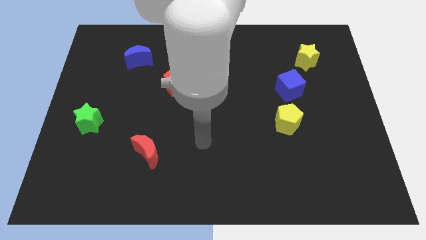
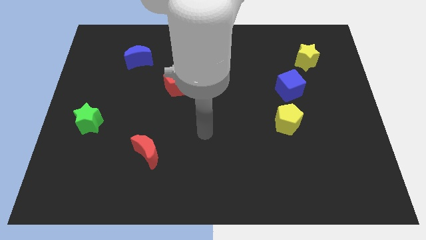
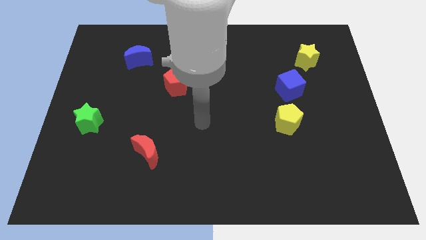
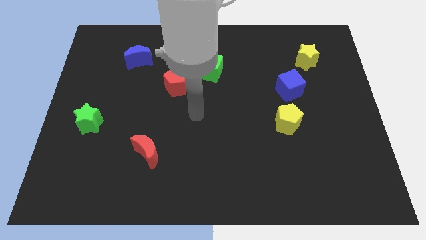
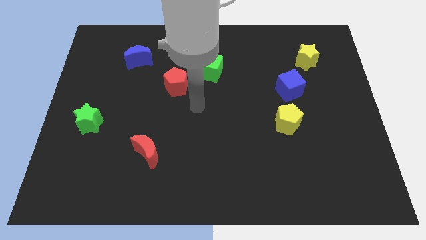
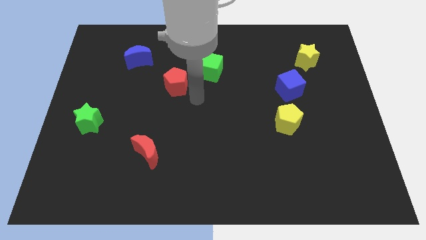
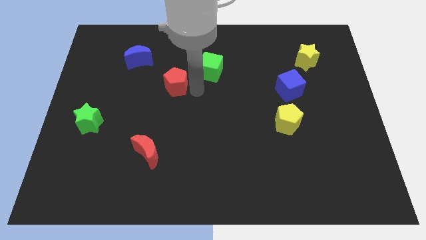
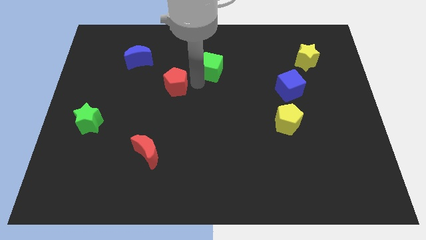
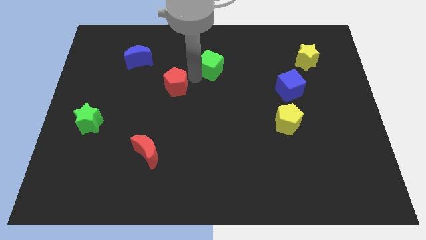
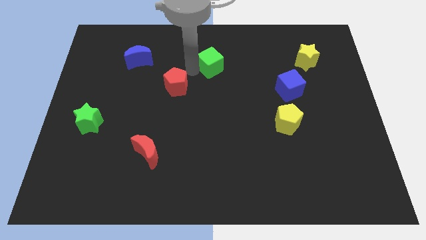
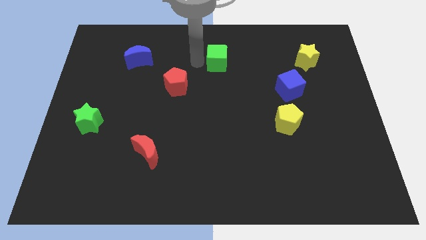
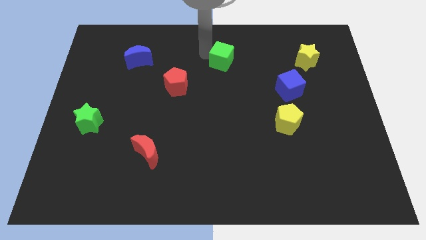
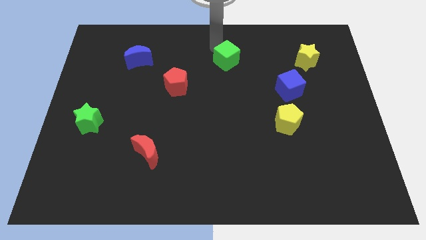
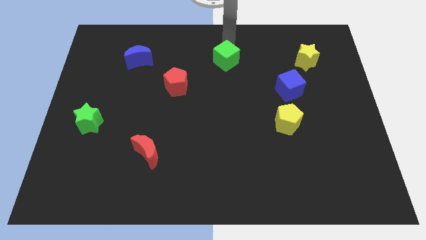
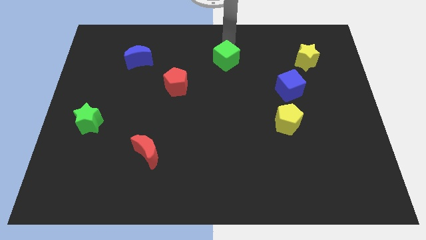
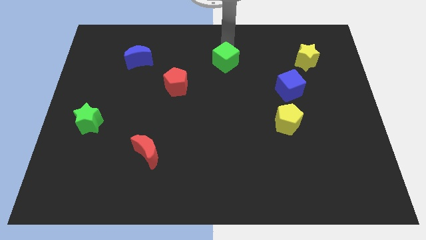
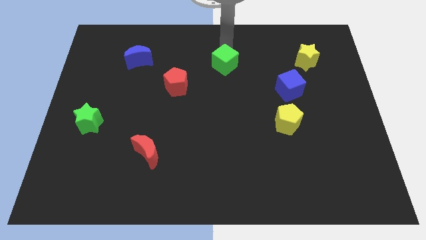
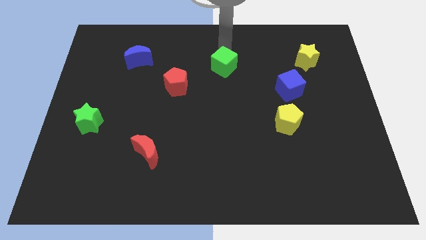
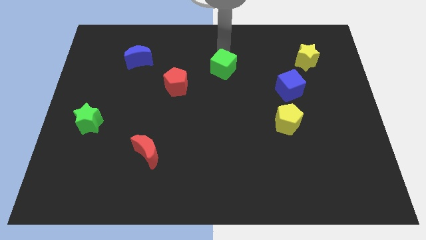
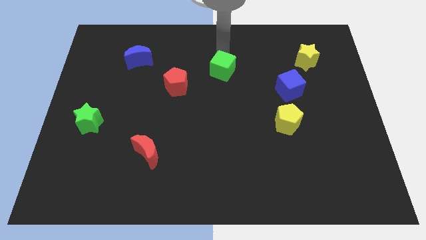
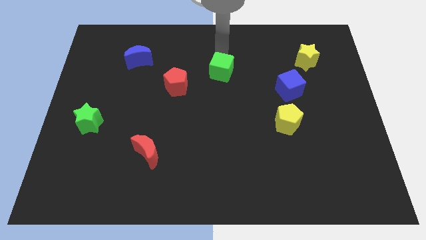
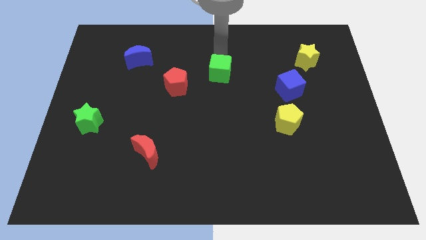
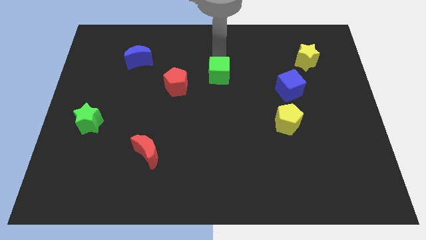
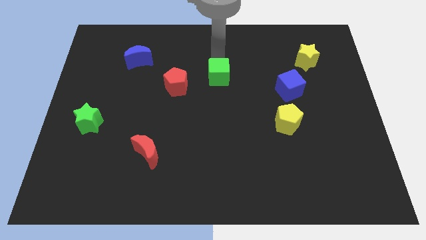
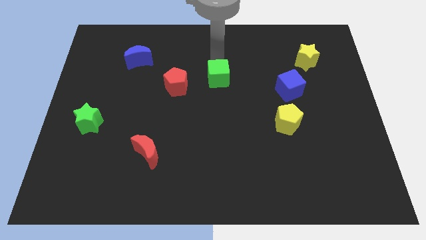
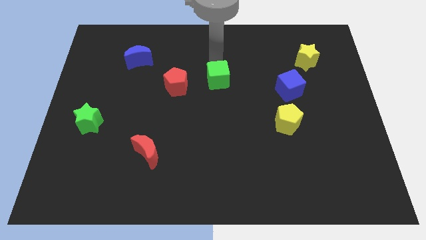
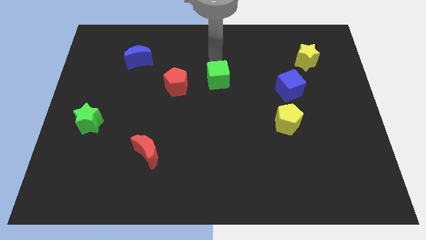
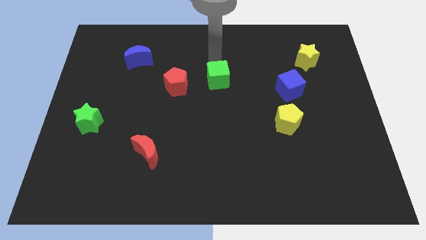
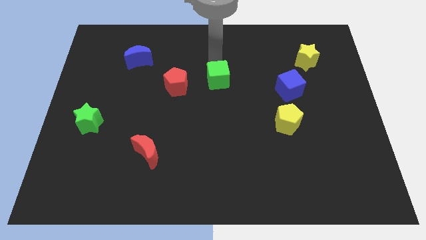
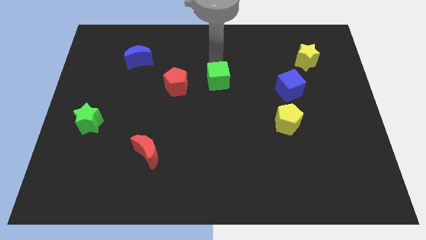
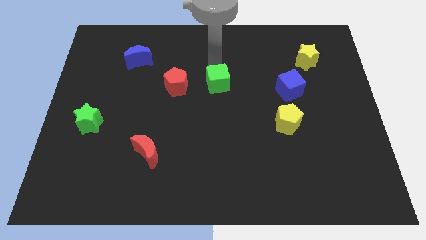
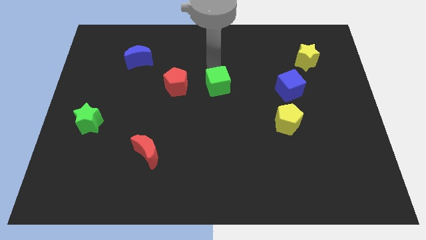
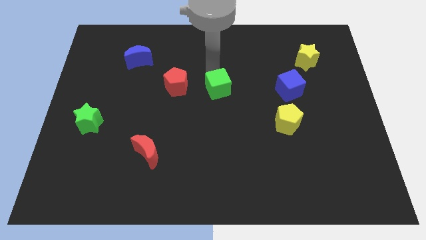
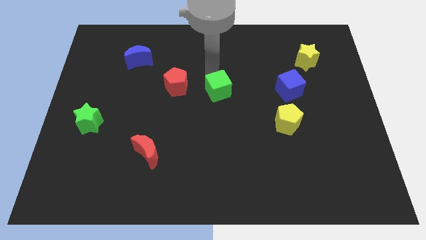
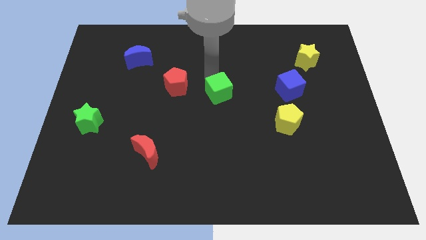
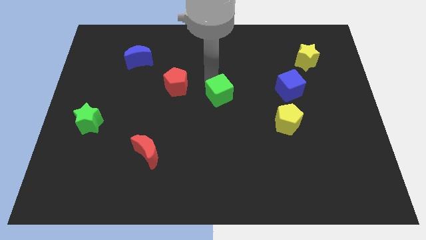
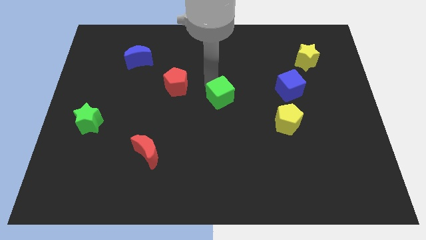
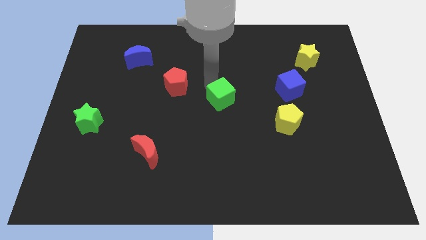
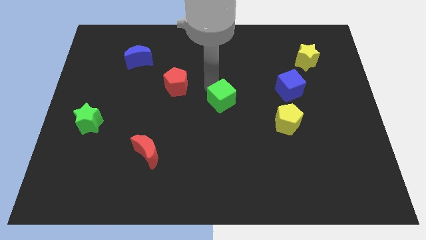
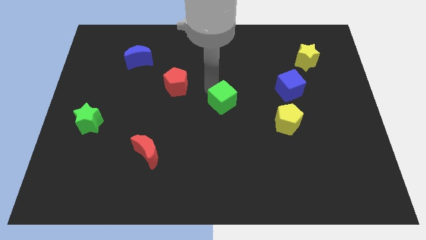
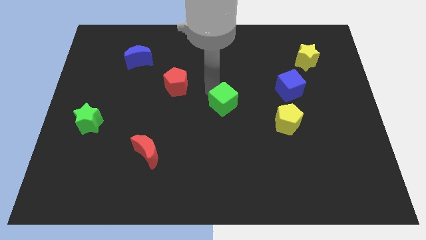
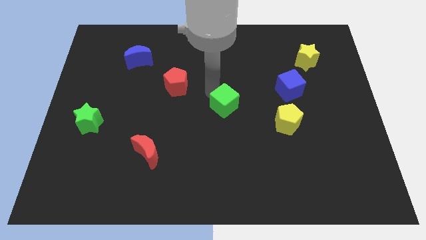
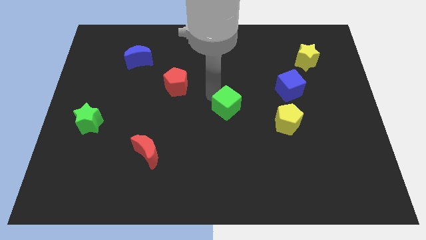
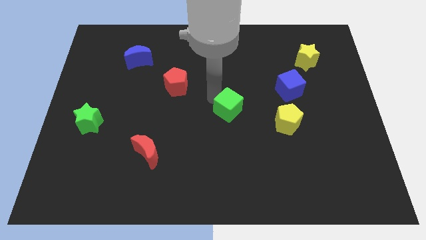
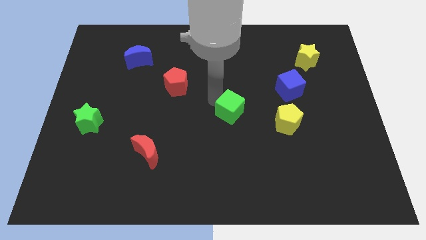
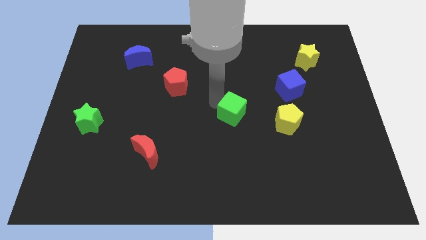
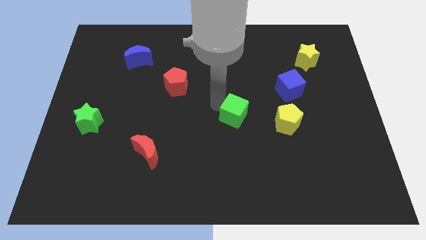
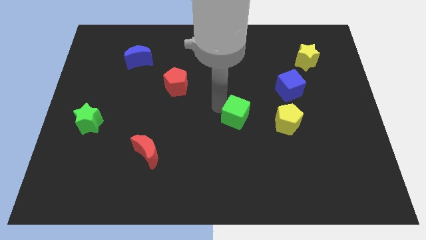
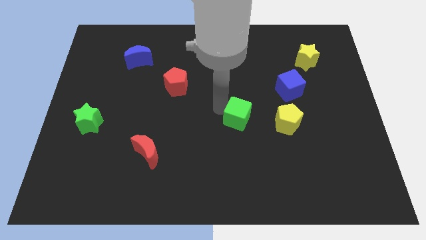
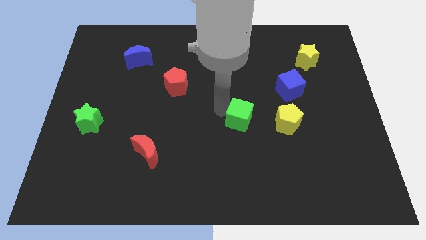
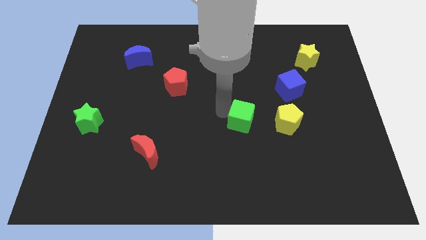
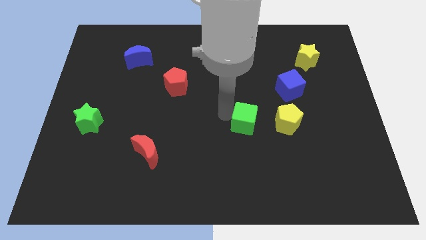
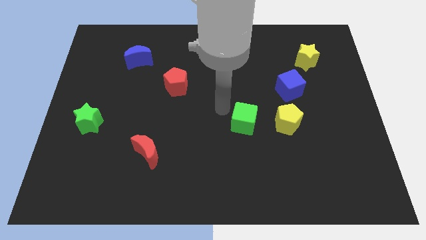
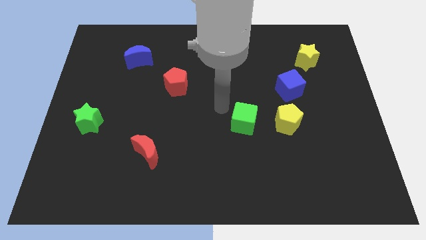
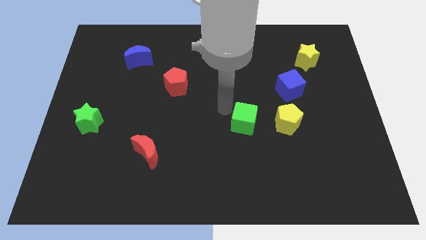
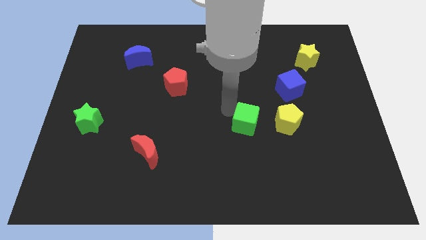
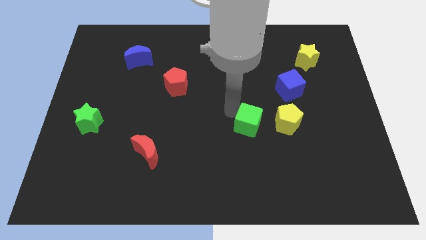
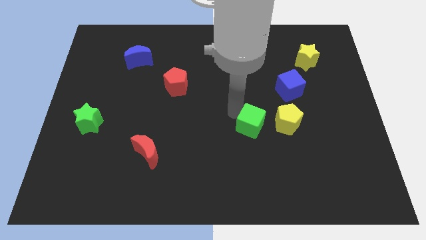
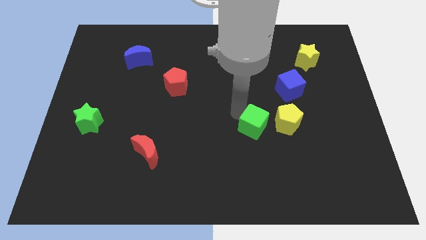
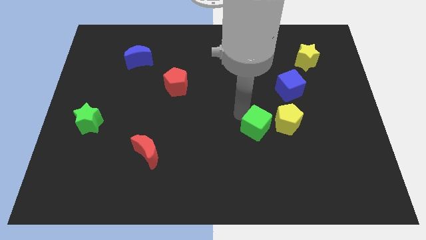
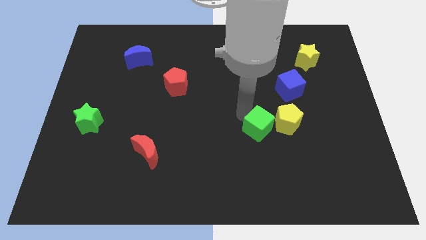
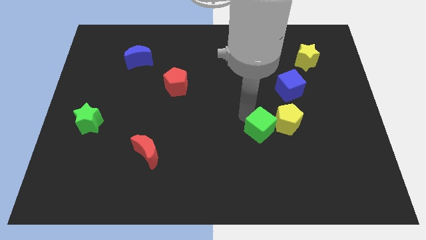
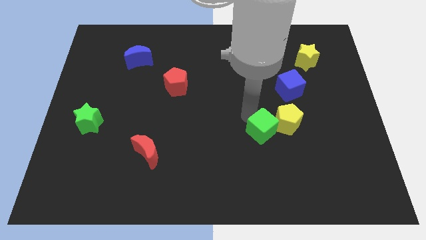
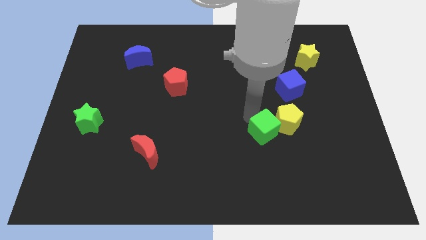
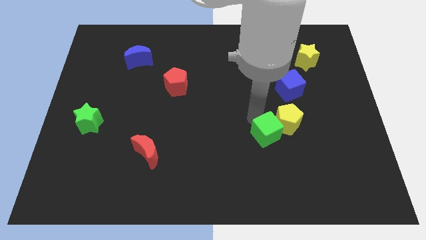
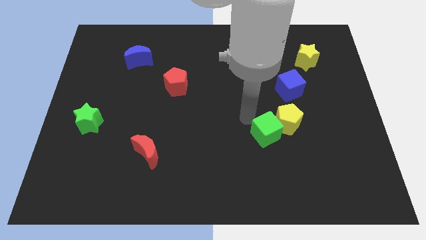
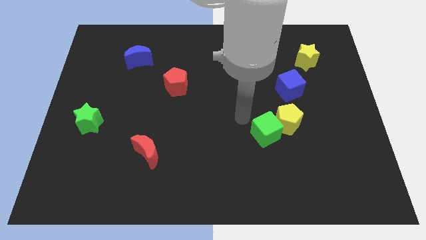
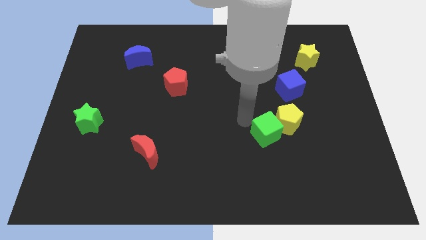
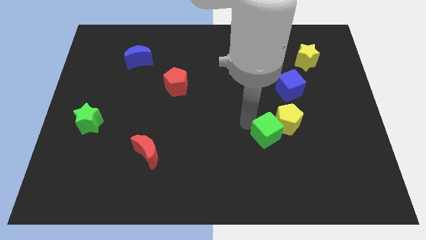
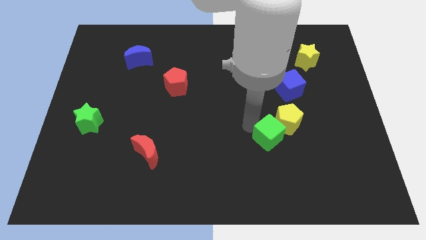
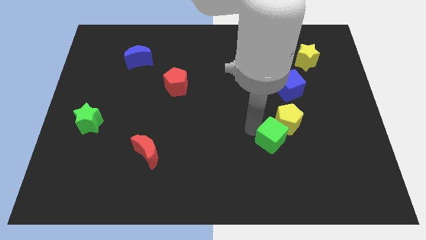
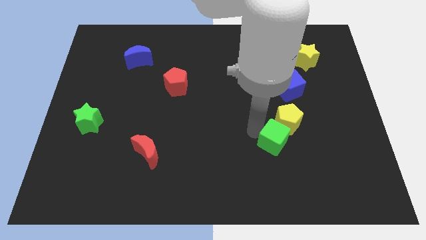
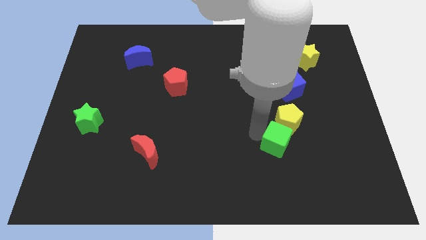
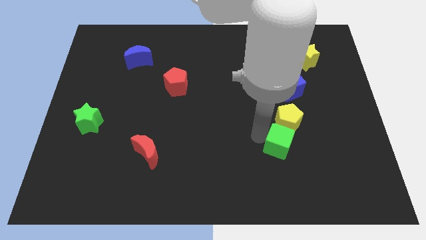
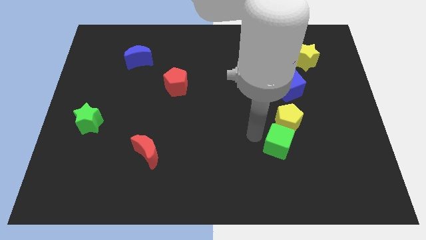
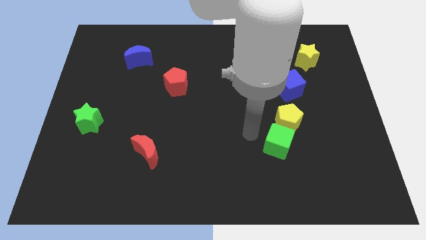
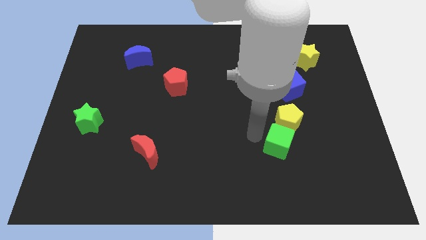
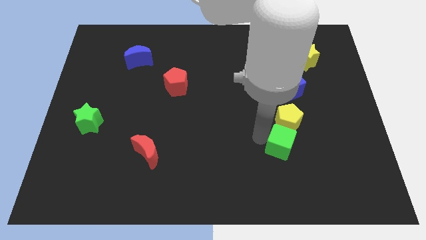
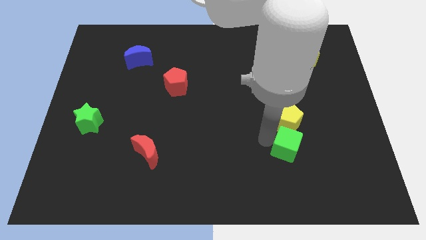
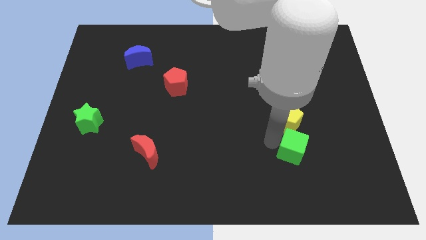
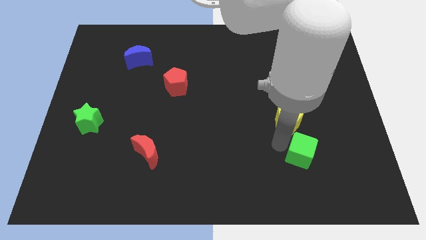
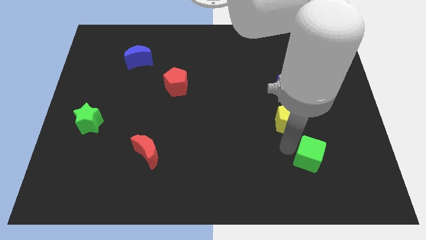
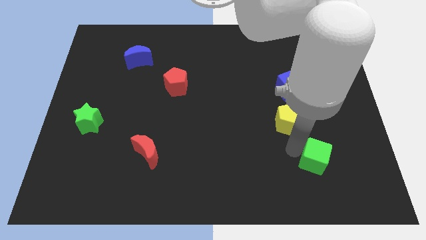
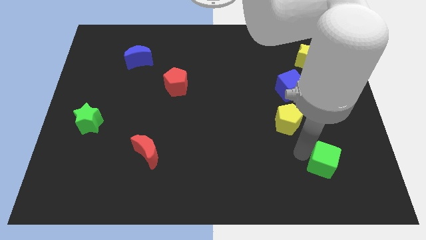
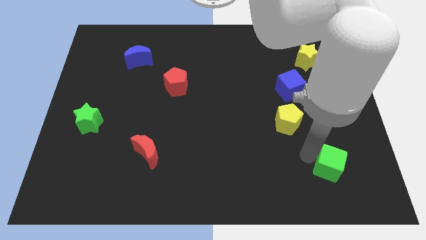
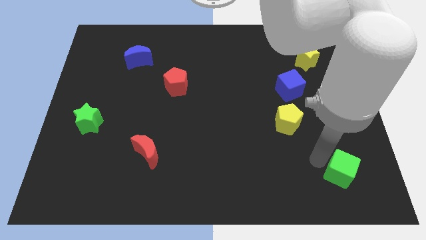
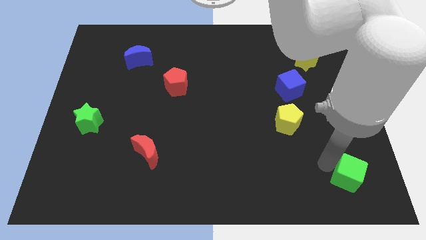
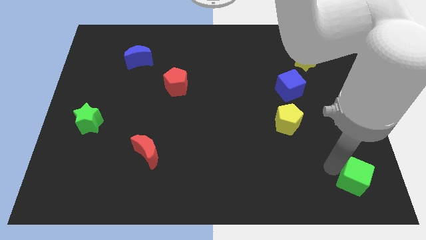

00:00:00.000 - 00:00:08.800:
move the green cube to the bottom right corner
